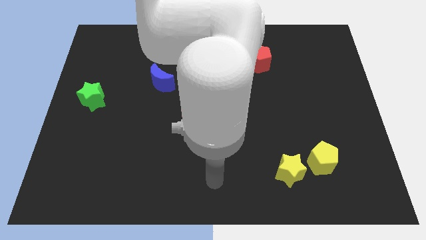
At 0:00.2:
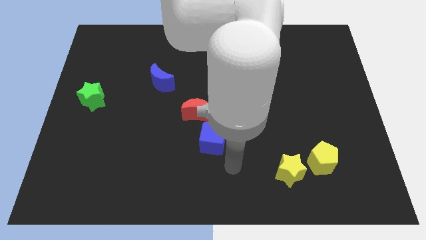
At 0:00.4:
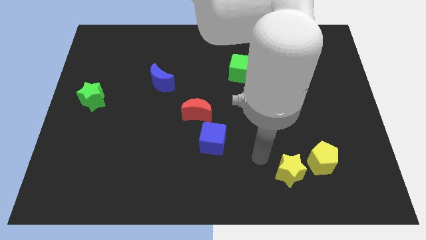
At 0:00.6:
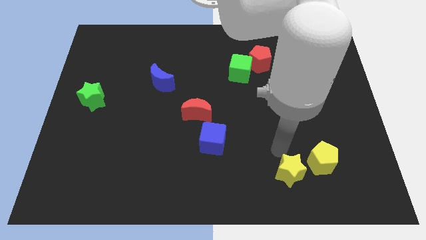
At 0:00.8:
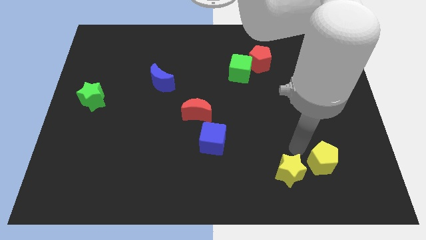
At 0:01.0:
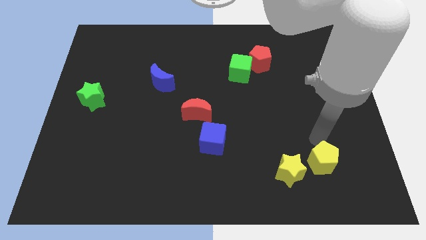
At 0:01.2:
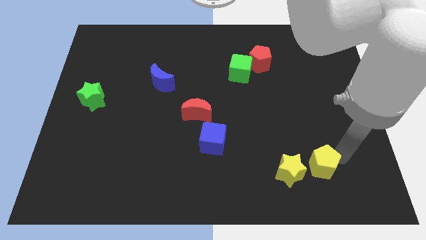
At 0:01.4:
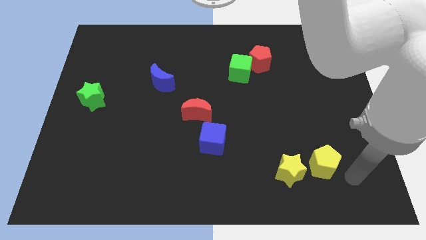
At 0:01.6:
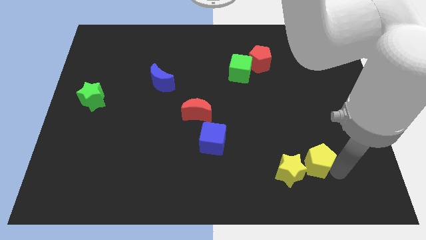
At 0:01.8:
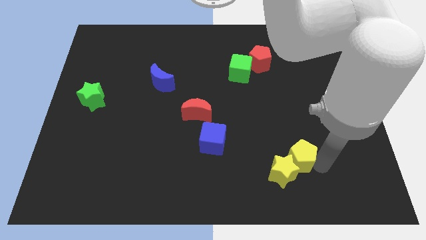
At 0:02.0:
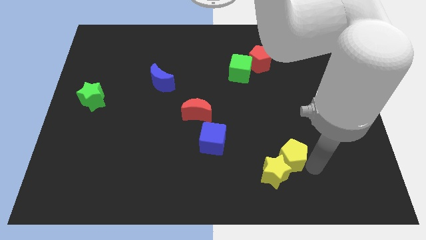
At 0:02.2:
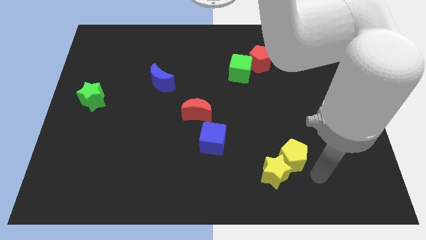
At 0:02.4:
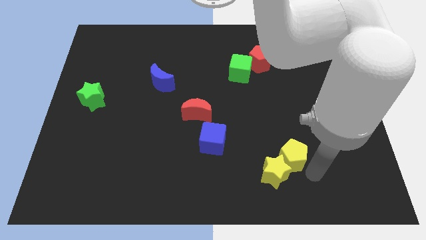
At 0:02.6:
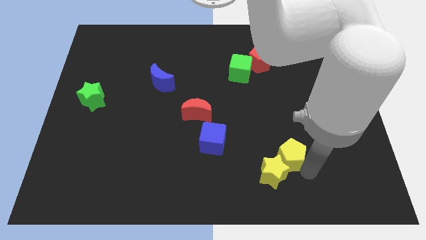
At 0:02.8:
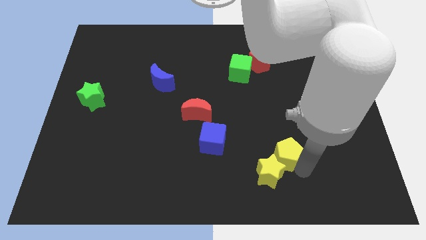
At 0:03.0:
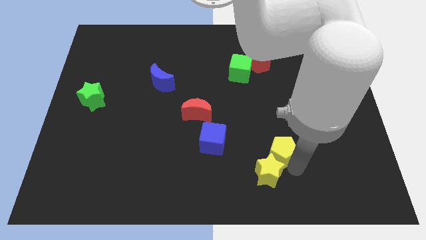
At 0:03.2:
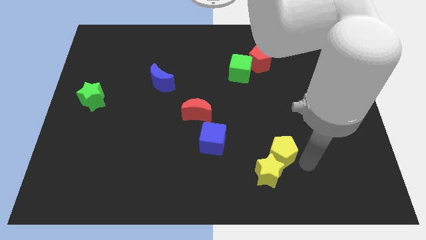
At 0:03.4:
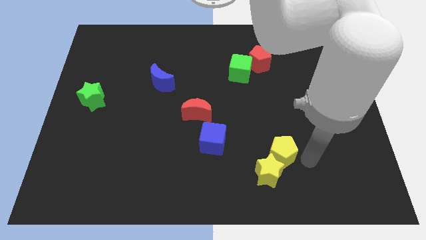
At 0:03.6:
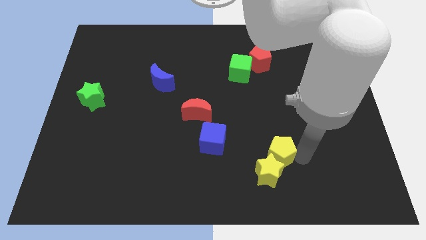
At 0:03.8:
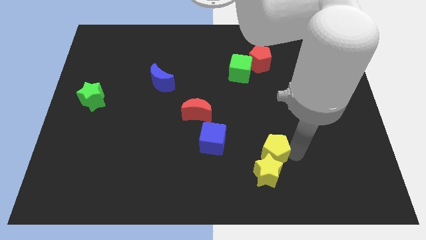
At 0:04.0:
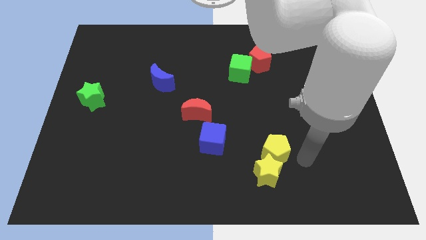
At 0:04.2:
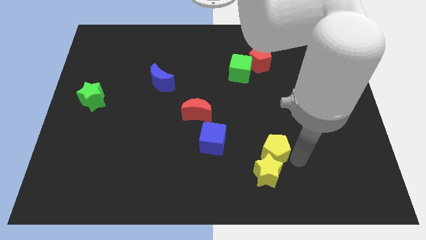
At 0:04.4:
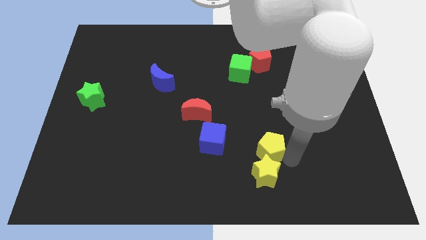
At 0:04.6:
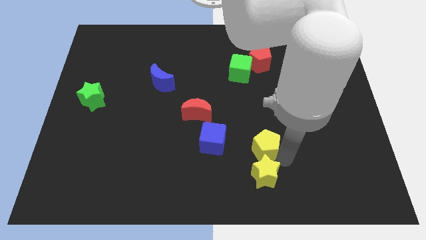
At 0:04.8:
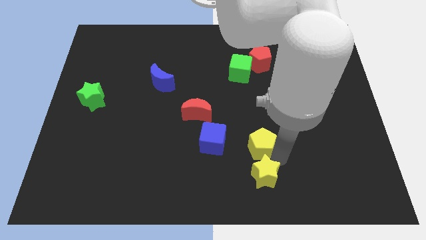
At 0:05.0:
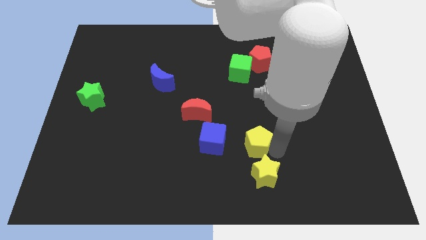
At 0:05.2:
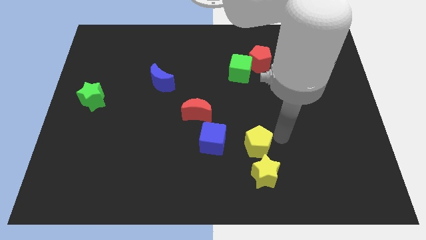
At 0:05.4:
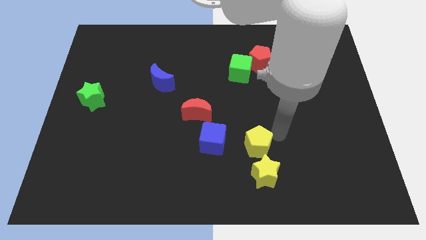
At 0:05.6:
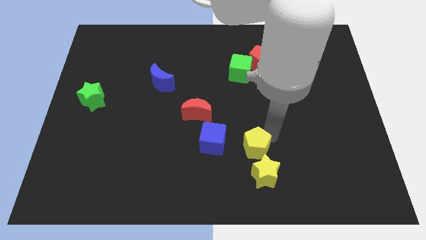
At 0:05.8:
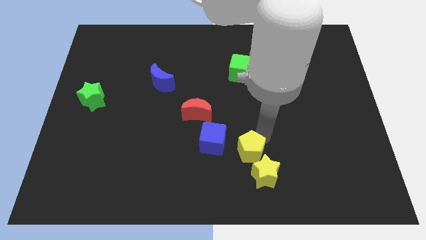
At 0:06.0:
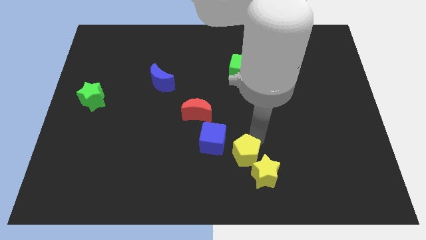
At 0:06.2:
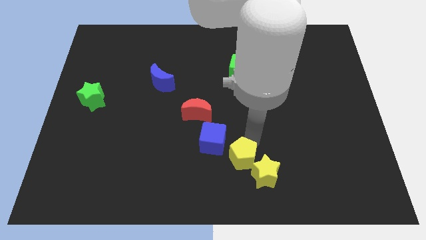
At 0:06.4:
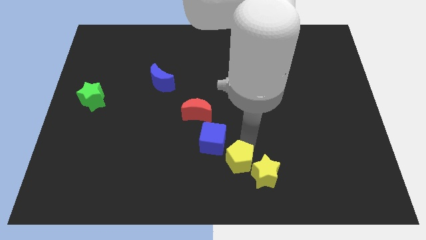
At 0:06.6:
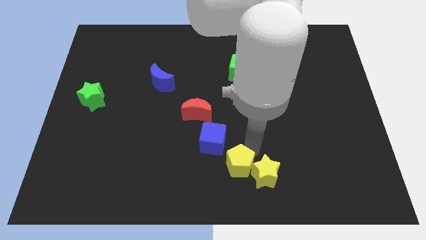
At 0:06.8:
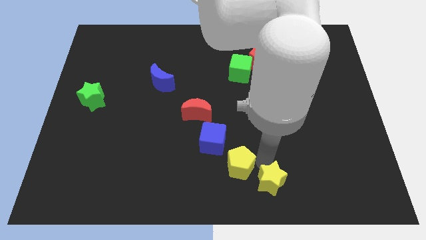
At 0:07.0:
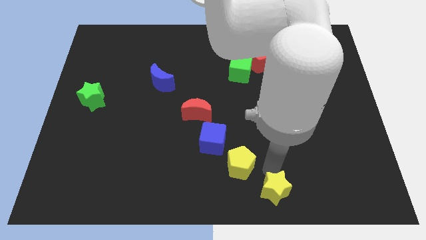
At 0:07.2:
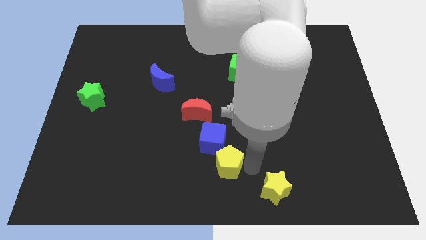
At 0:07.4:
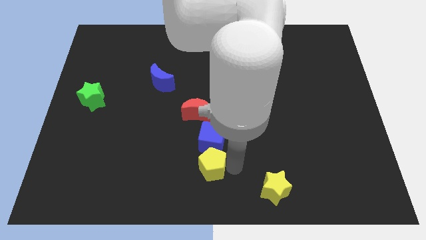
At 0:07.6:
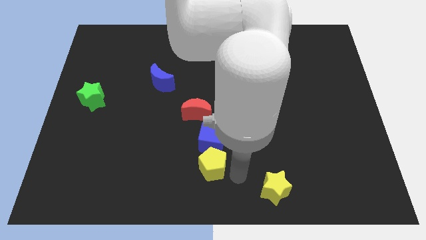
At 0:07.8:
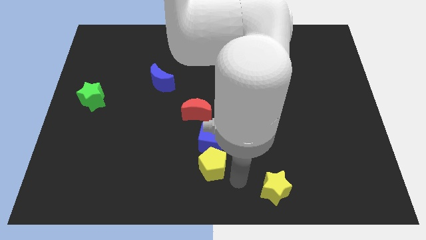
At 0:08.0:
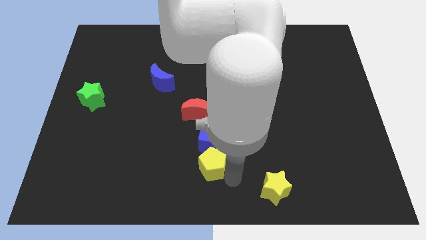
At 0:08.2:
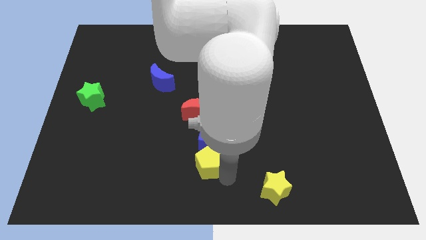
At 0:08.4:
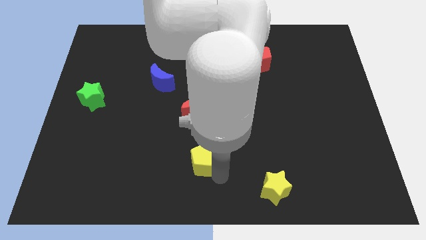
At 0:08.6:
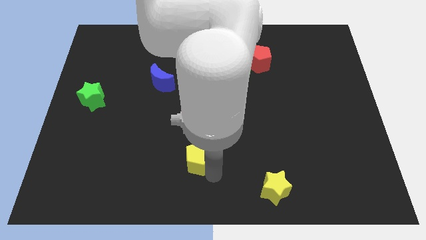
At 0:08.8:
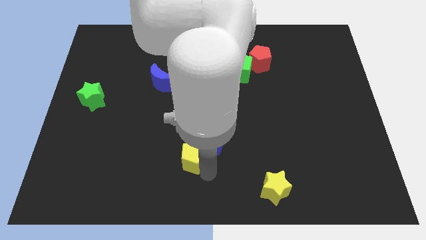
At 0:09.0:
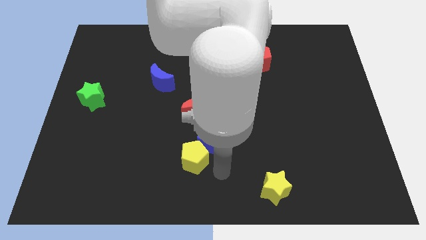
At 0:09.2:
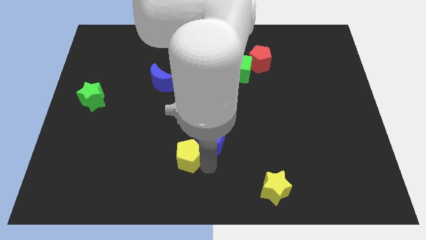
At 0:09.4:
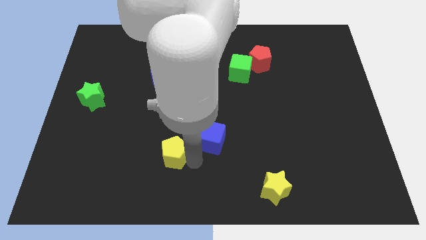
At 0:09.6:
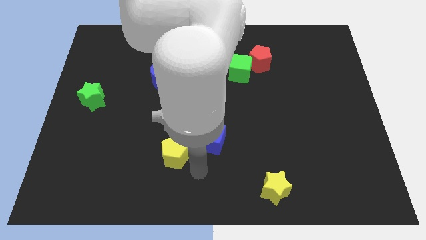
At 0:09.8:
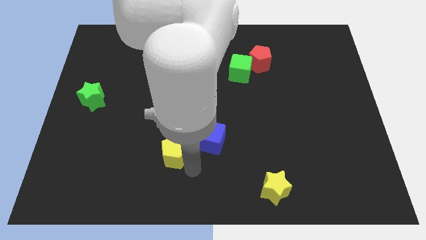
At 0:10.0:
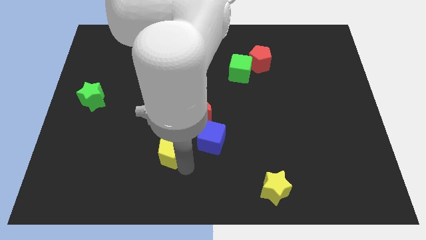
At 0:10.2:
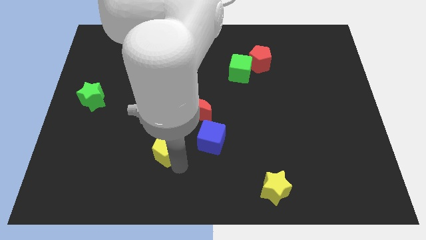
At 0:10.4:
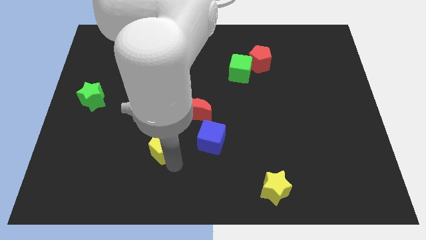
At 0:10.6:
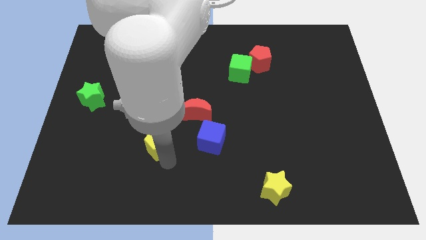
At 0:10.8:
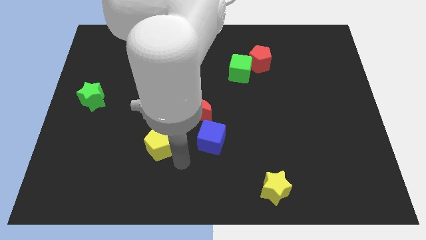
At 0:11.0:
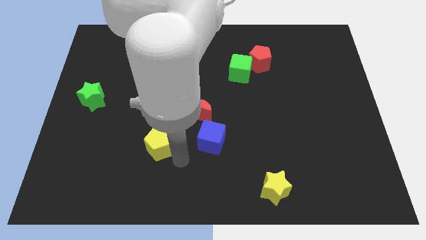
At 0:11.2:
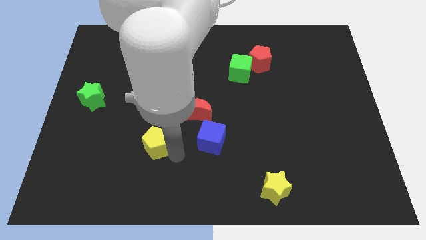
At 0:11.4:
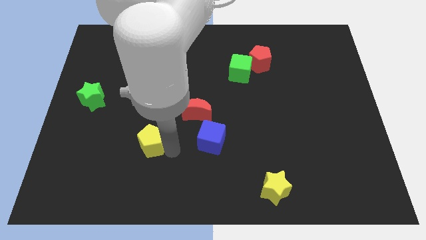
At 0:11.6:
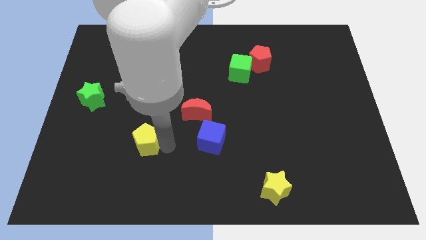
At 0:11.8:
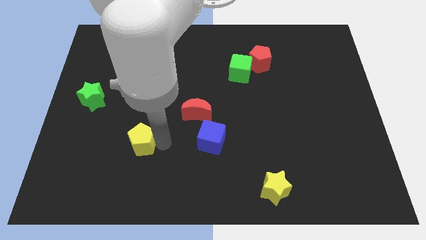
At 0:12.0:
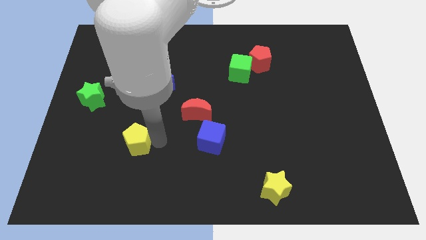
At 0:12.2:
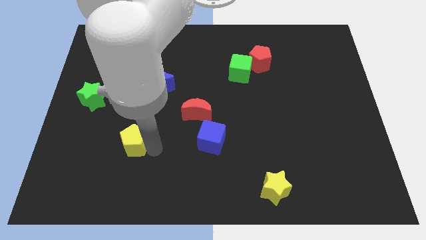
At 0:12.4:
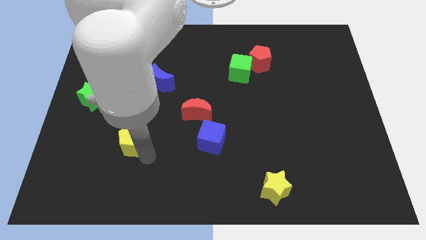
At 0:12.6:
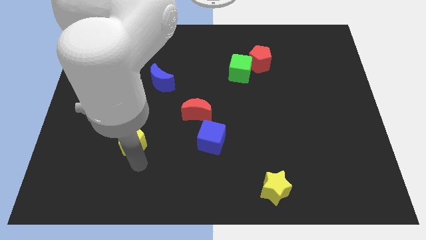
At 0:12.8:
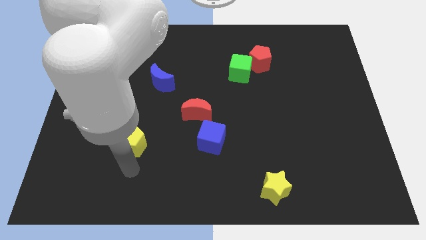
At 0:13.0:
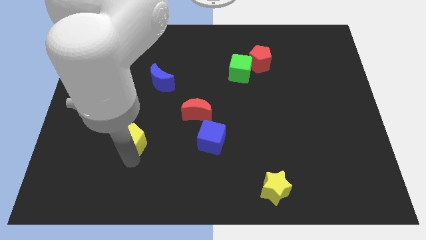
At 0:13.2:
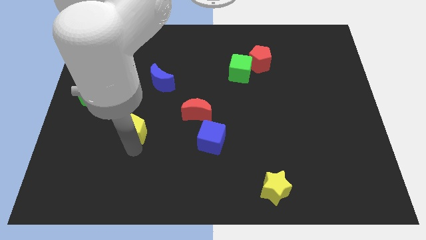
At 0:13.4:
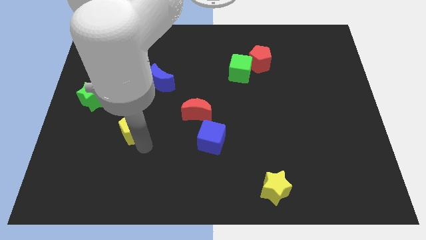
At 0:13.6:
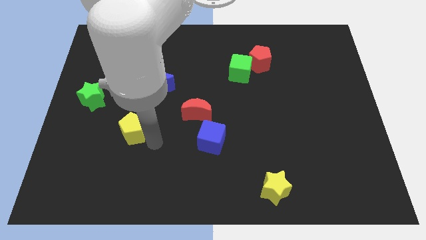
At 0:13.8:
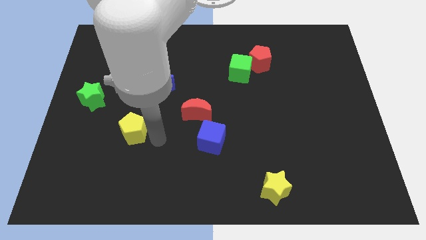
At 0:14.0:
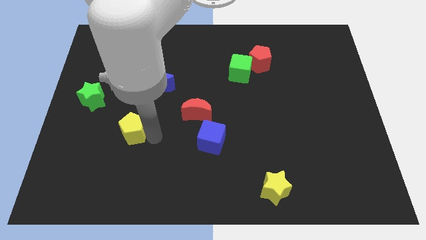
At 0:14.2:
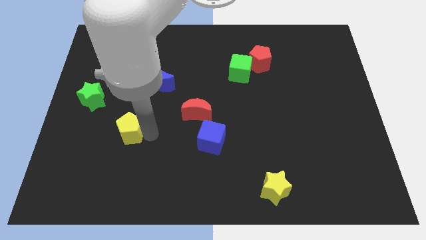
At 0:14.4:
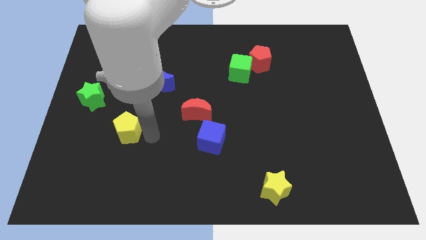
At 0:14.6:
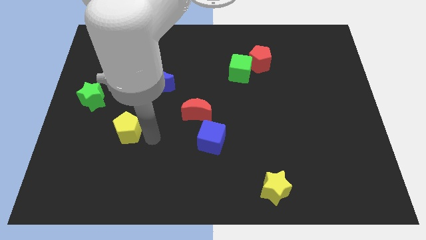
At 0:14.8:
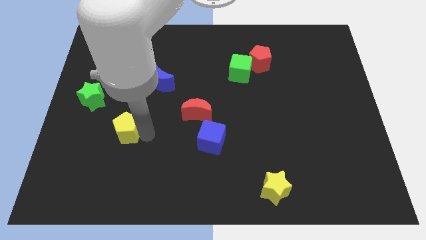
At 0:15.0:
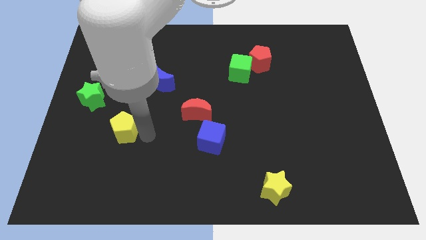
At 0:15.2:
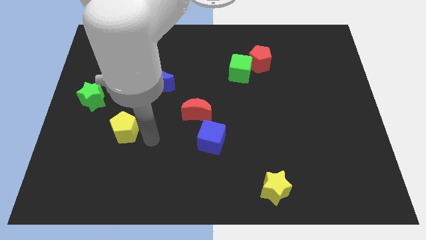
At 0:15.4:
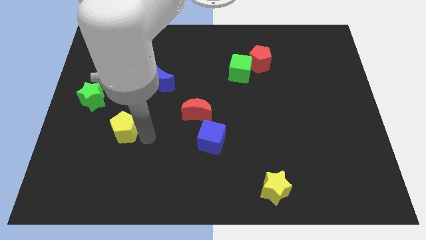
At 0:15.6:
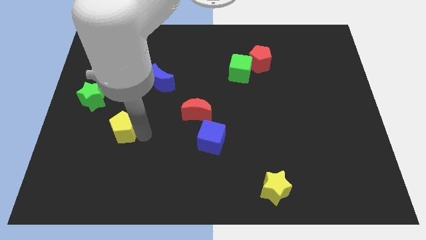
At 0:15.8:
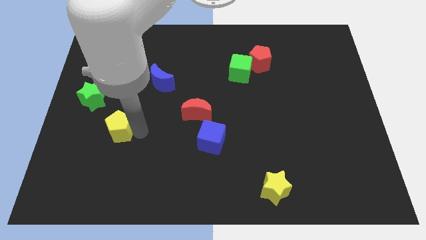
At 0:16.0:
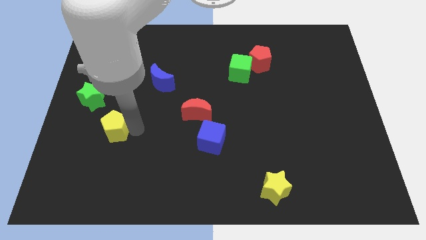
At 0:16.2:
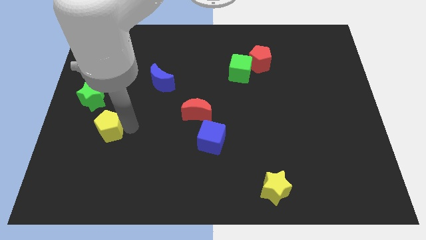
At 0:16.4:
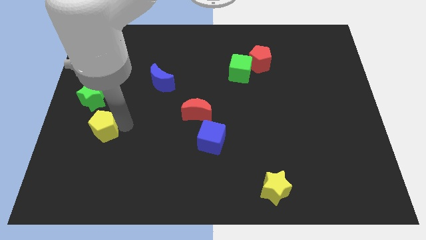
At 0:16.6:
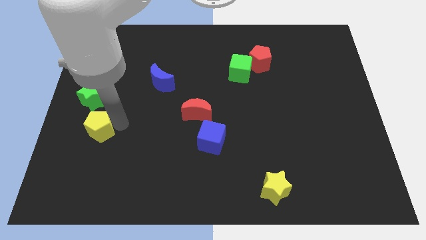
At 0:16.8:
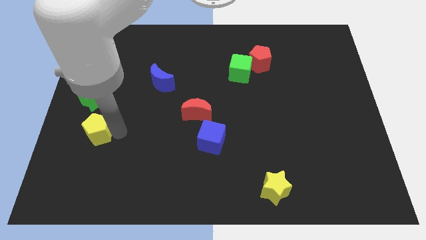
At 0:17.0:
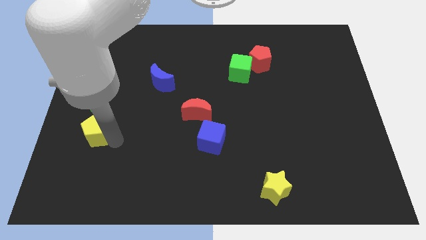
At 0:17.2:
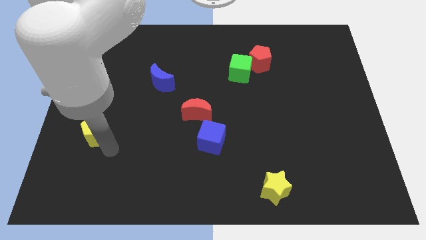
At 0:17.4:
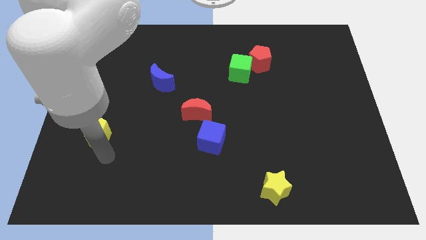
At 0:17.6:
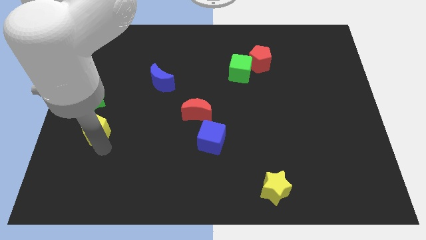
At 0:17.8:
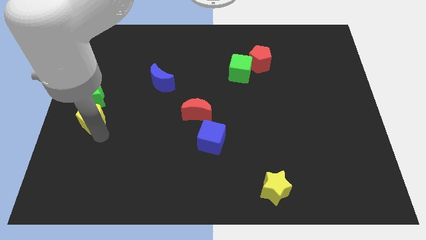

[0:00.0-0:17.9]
push the yellow pentagon to the left side of the board
